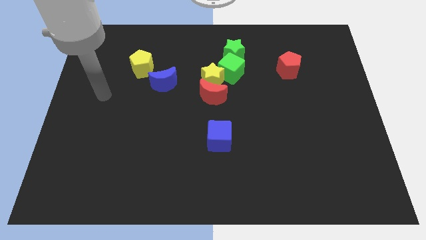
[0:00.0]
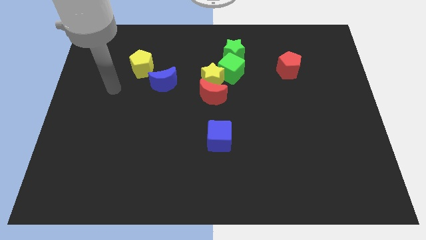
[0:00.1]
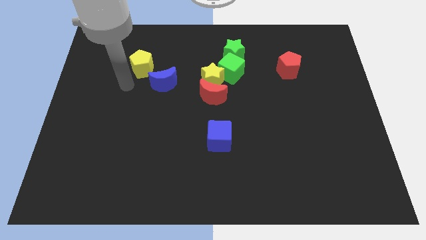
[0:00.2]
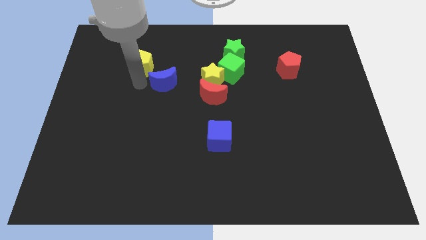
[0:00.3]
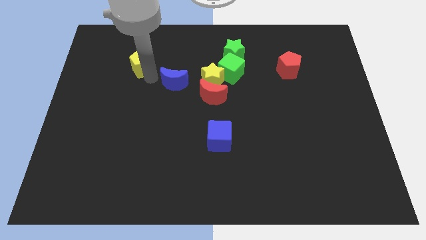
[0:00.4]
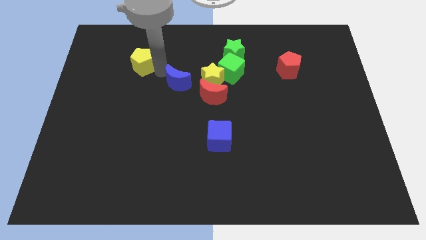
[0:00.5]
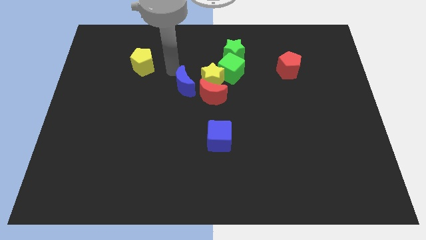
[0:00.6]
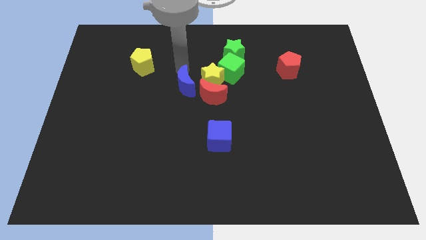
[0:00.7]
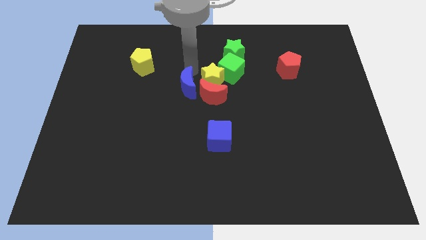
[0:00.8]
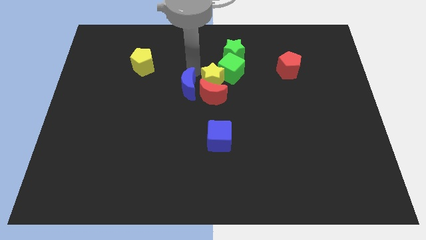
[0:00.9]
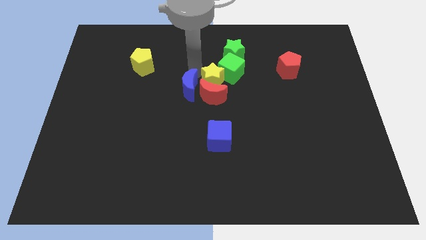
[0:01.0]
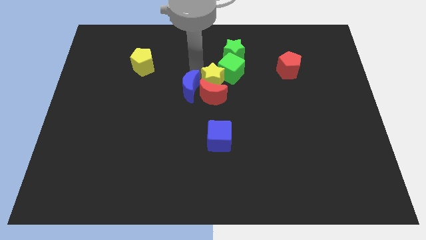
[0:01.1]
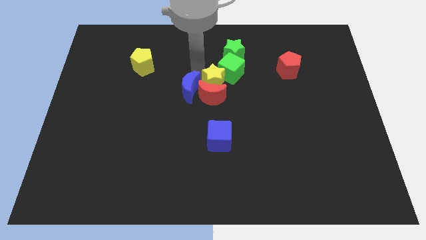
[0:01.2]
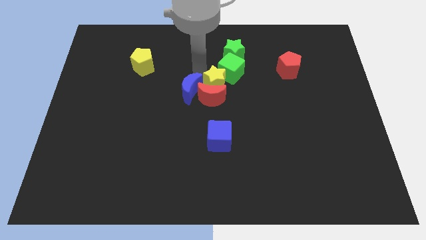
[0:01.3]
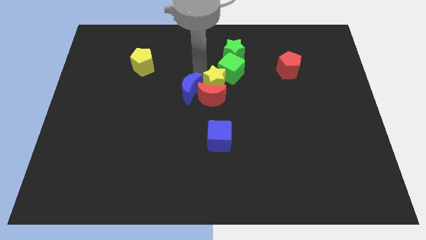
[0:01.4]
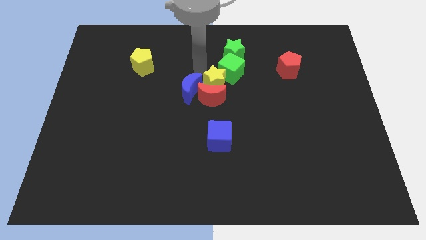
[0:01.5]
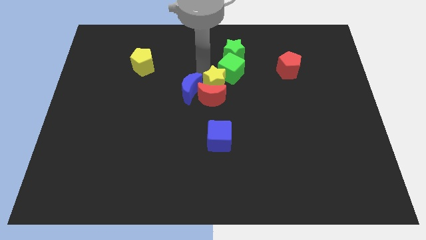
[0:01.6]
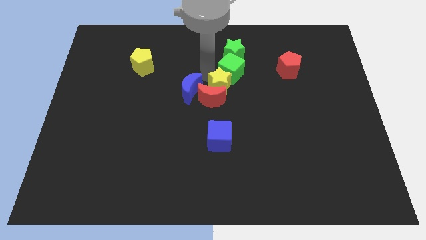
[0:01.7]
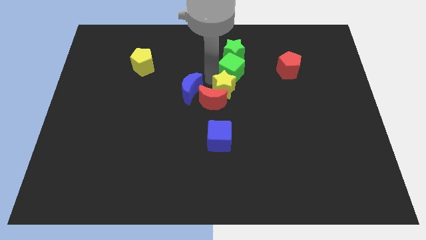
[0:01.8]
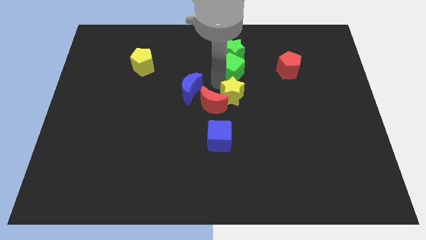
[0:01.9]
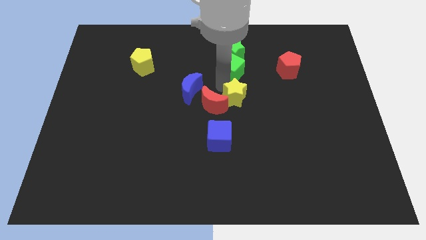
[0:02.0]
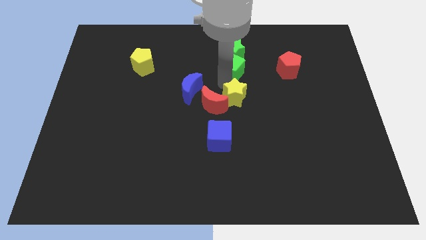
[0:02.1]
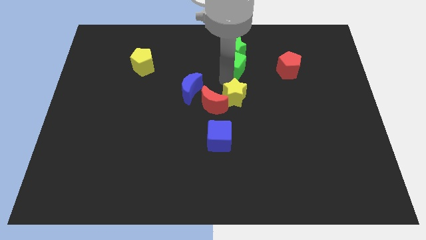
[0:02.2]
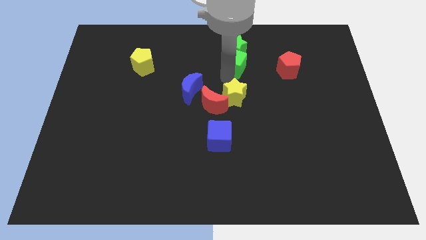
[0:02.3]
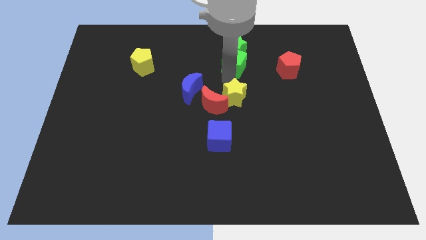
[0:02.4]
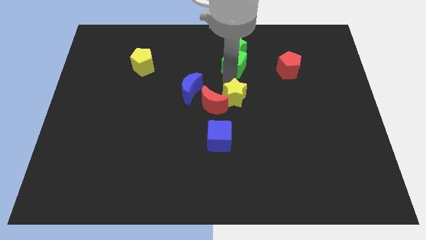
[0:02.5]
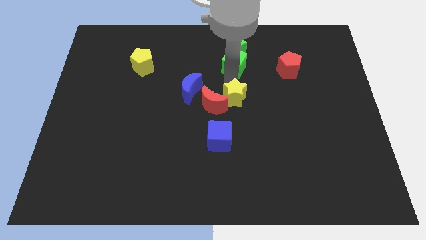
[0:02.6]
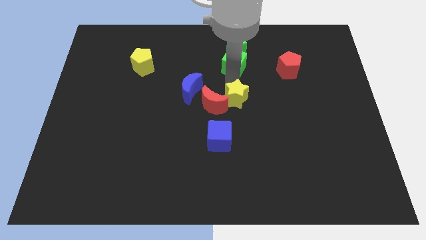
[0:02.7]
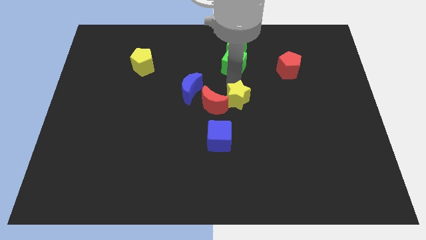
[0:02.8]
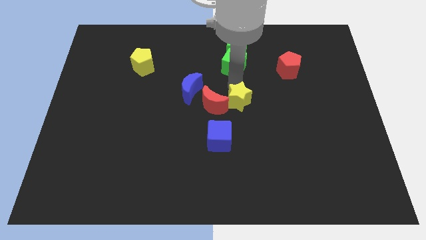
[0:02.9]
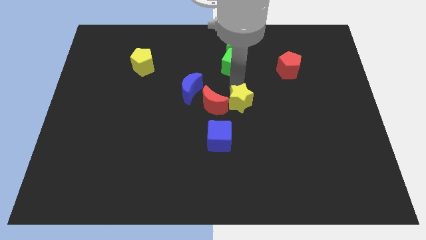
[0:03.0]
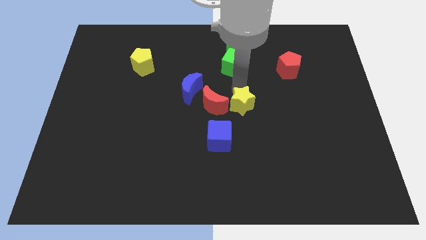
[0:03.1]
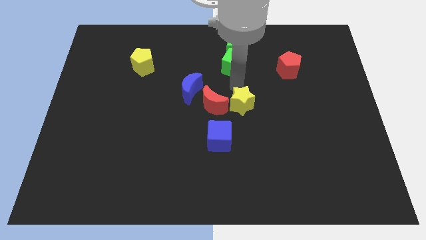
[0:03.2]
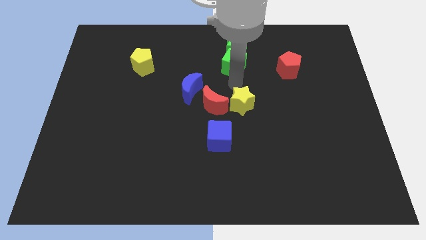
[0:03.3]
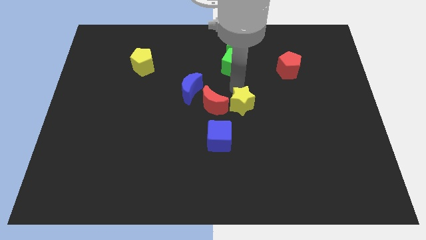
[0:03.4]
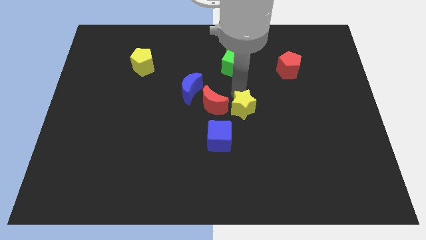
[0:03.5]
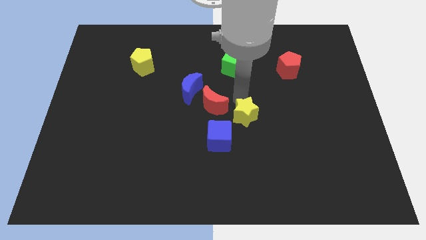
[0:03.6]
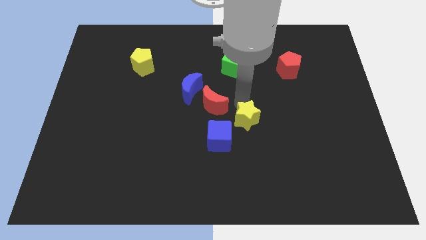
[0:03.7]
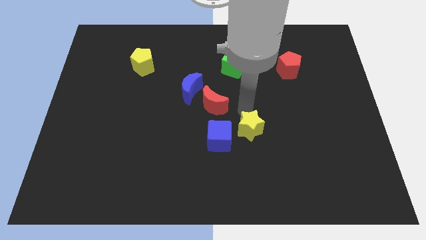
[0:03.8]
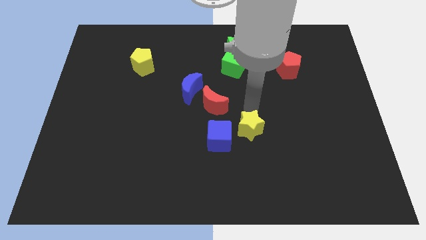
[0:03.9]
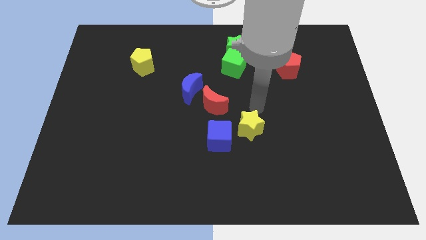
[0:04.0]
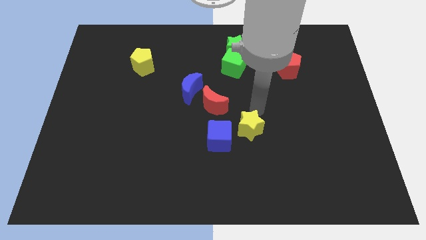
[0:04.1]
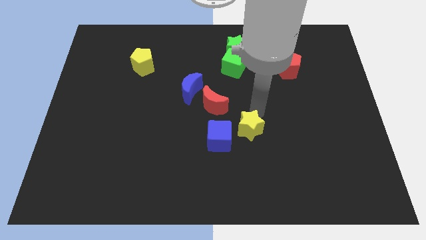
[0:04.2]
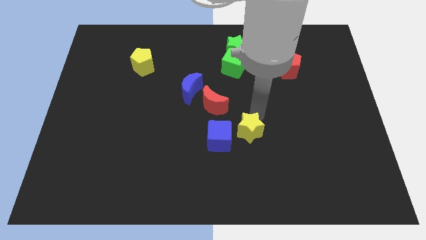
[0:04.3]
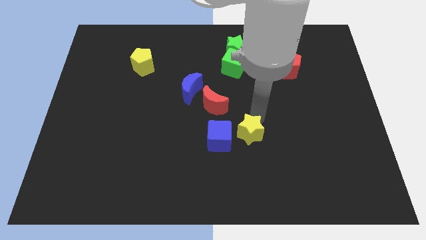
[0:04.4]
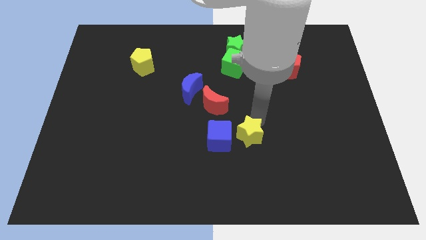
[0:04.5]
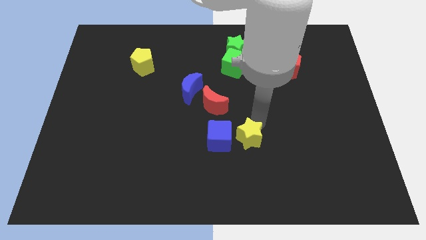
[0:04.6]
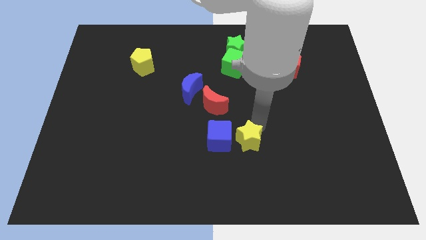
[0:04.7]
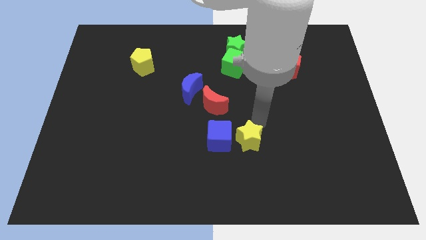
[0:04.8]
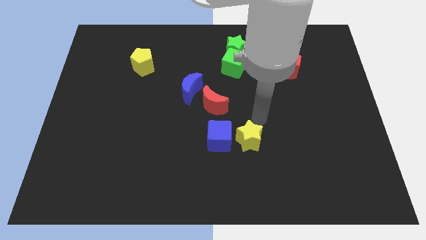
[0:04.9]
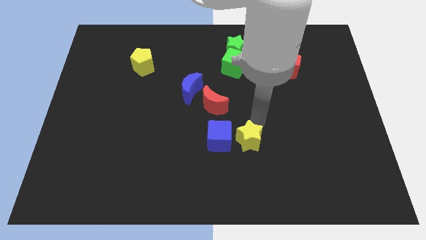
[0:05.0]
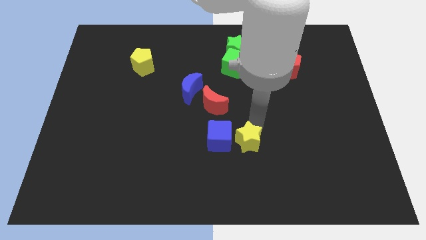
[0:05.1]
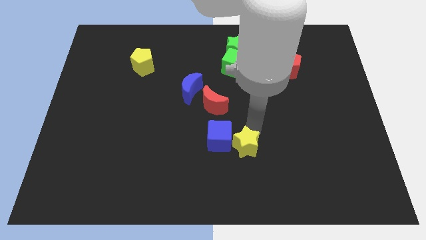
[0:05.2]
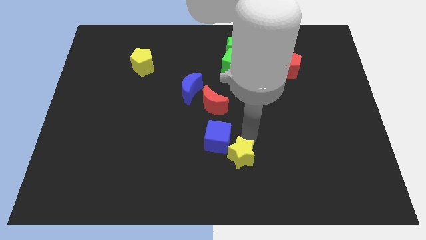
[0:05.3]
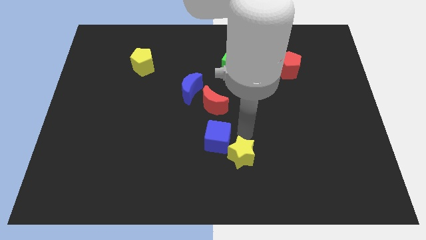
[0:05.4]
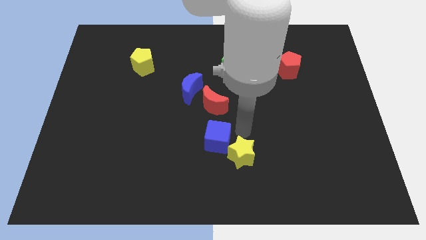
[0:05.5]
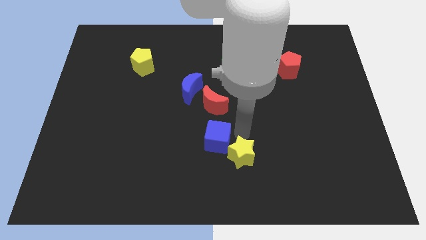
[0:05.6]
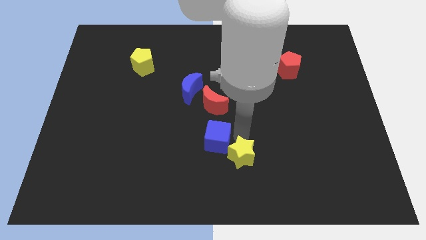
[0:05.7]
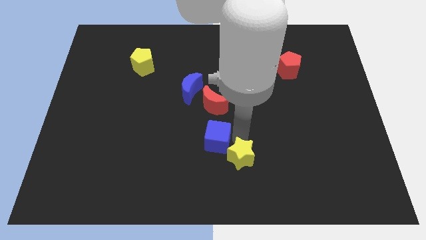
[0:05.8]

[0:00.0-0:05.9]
put the yellow star to the bottom side
